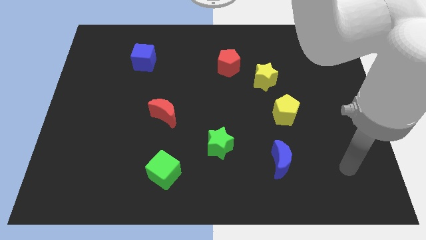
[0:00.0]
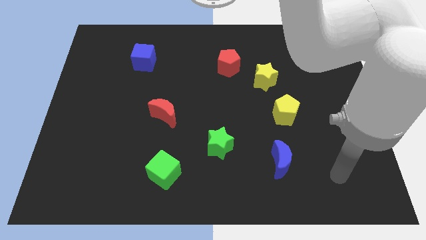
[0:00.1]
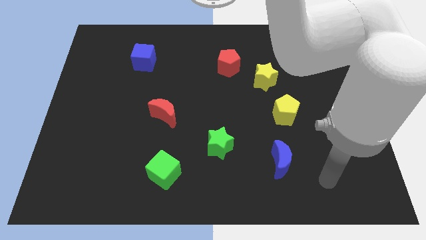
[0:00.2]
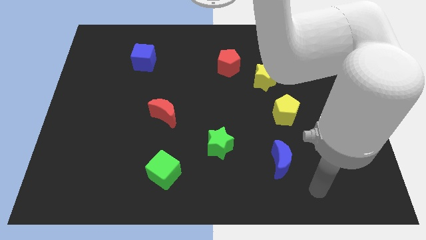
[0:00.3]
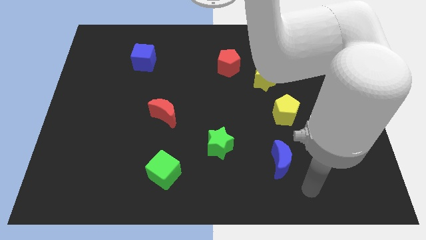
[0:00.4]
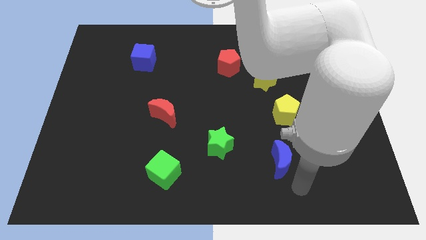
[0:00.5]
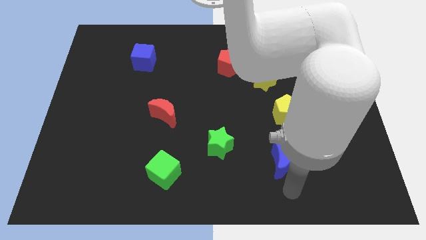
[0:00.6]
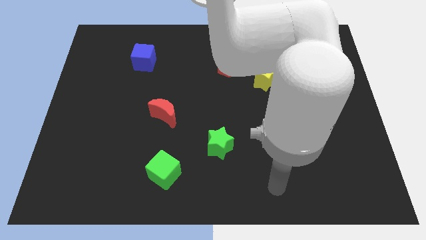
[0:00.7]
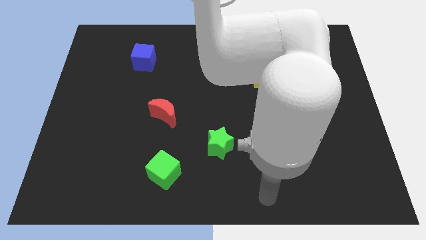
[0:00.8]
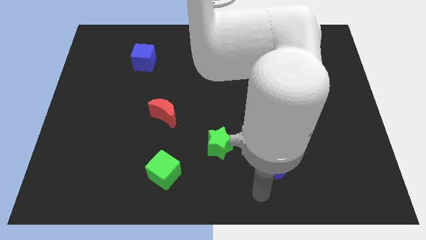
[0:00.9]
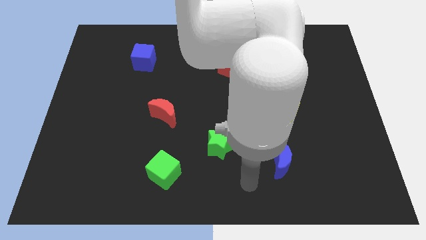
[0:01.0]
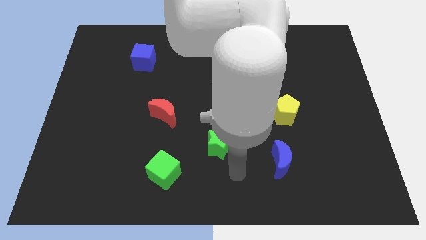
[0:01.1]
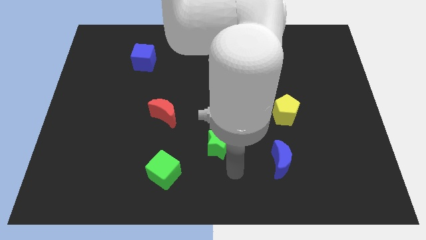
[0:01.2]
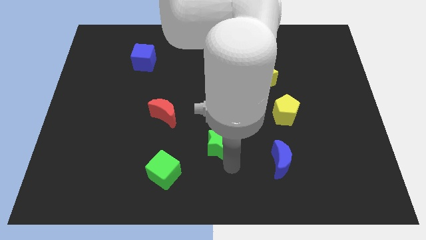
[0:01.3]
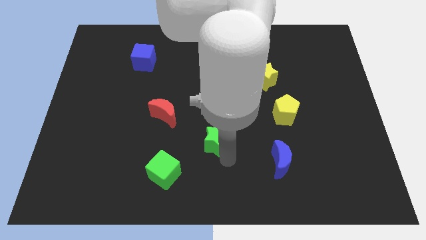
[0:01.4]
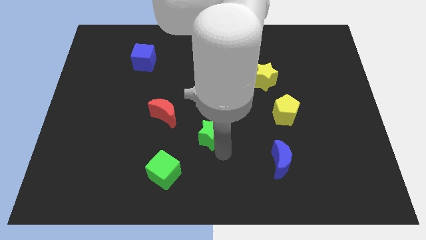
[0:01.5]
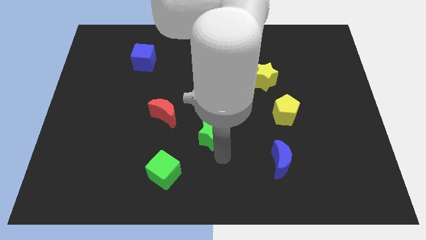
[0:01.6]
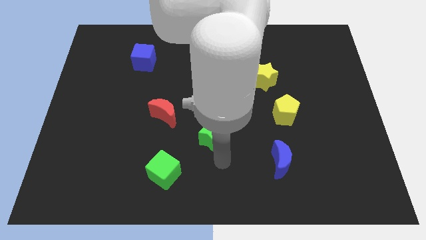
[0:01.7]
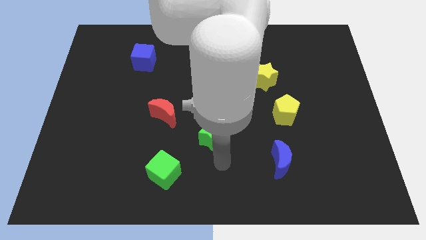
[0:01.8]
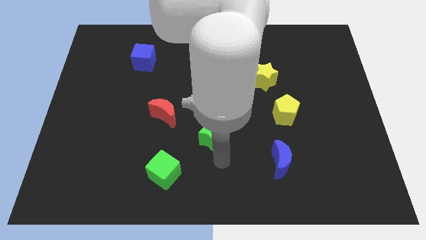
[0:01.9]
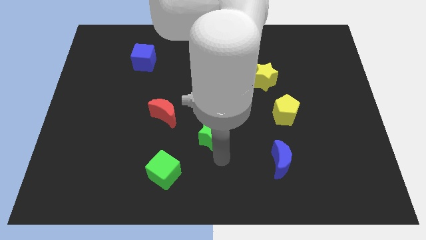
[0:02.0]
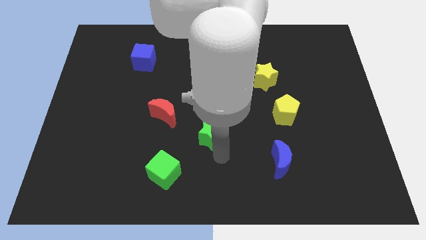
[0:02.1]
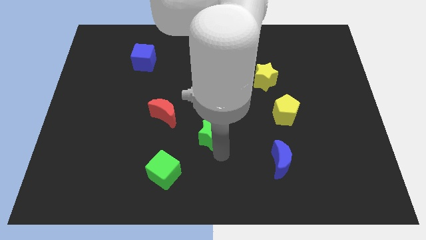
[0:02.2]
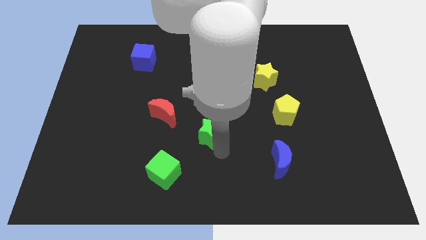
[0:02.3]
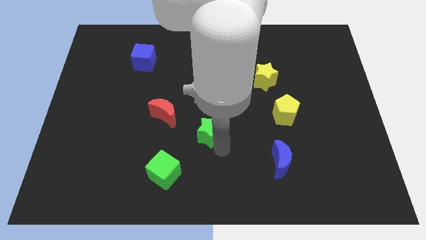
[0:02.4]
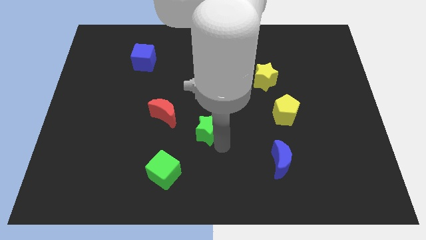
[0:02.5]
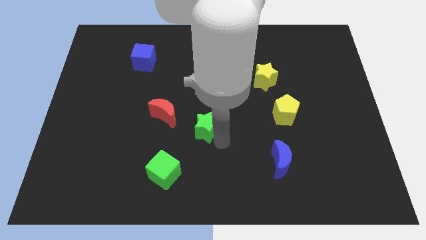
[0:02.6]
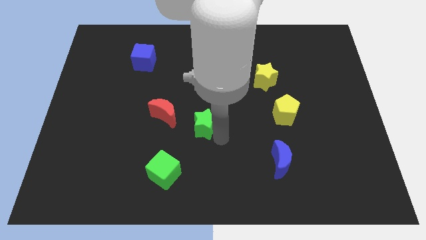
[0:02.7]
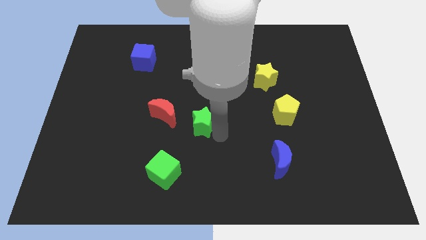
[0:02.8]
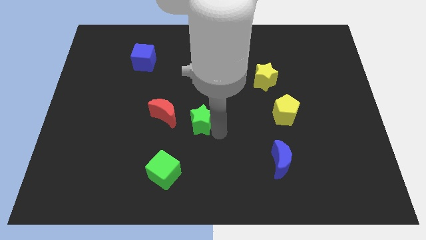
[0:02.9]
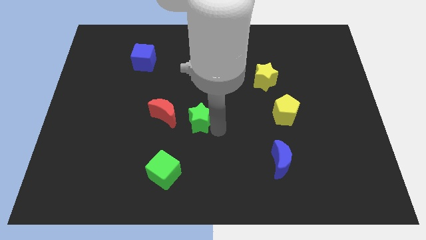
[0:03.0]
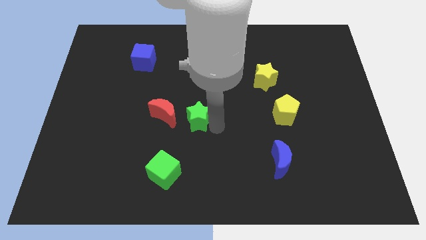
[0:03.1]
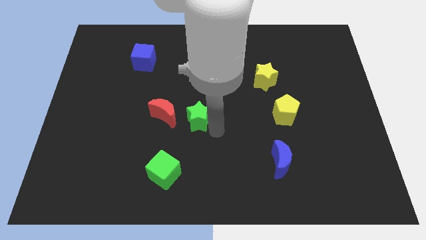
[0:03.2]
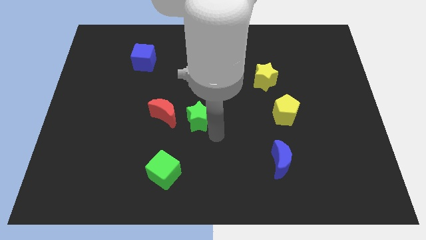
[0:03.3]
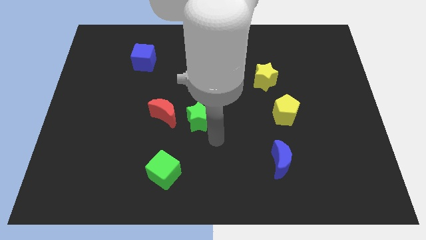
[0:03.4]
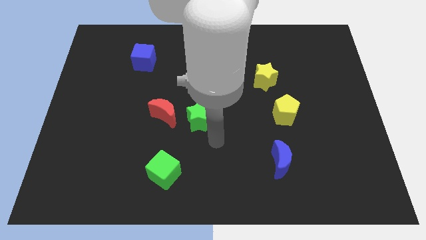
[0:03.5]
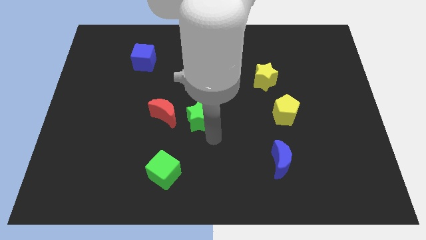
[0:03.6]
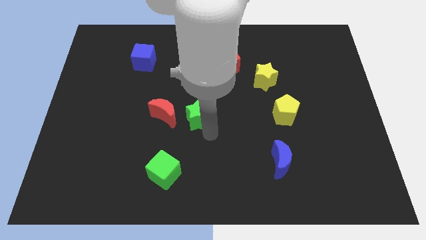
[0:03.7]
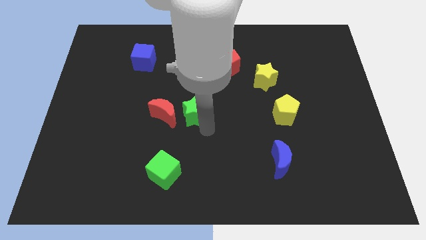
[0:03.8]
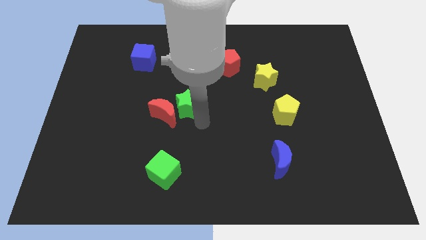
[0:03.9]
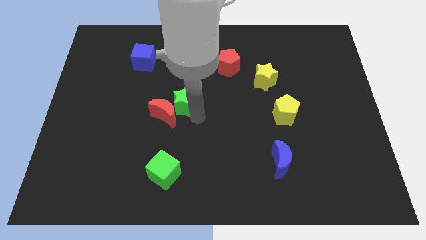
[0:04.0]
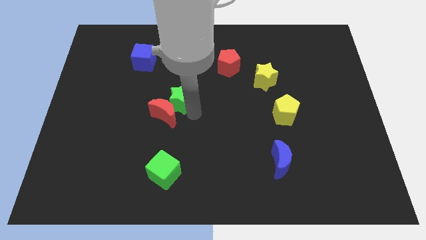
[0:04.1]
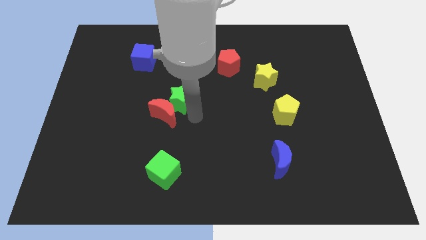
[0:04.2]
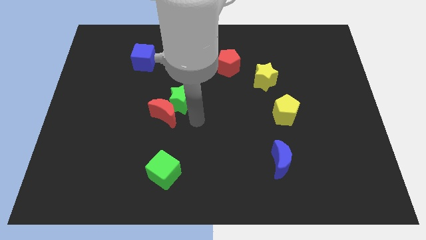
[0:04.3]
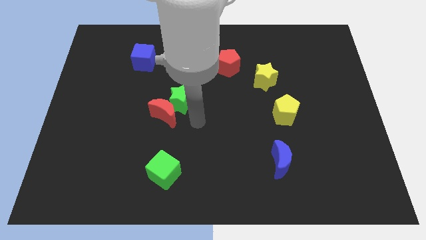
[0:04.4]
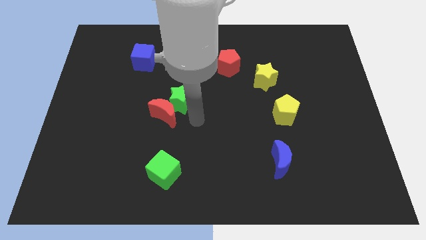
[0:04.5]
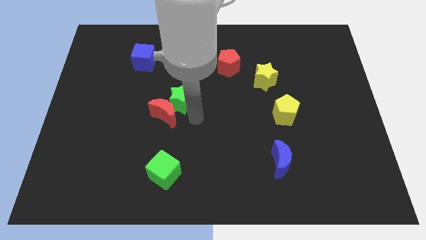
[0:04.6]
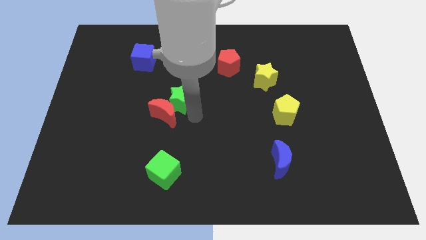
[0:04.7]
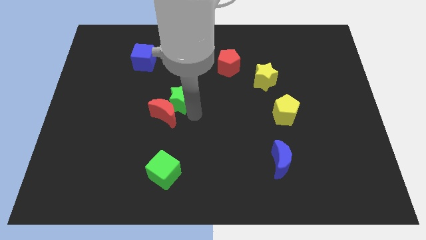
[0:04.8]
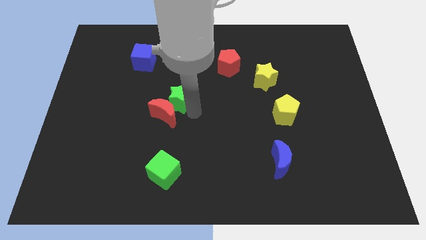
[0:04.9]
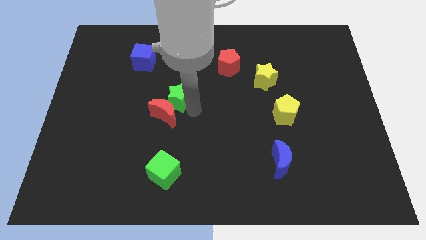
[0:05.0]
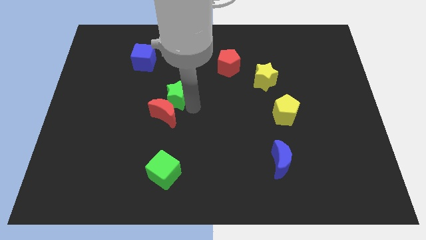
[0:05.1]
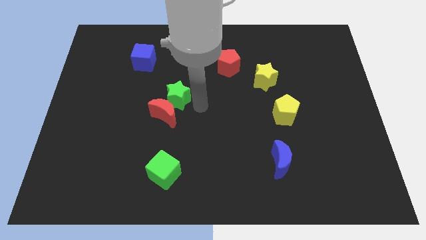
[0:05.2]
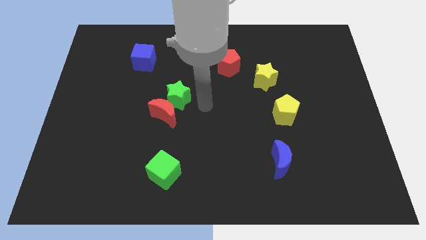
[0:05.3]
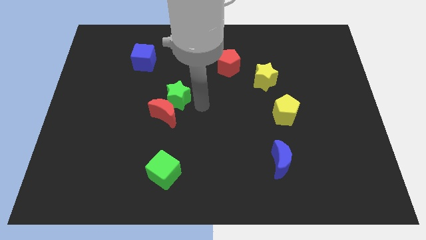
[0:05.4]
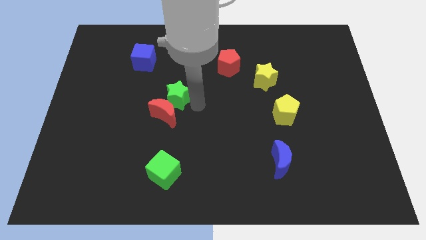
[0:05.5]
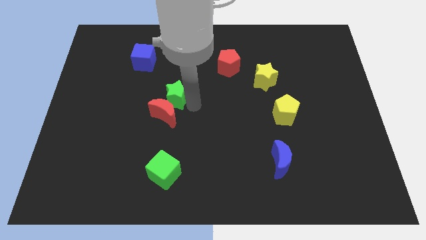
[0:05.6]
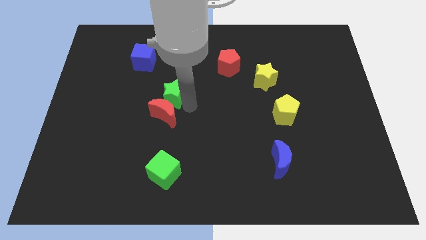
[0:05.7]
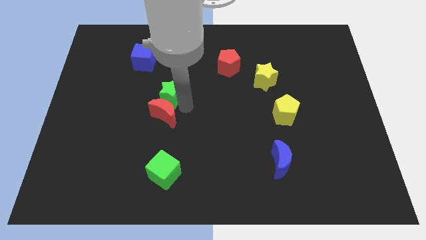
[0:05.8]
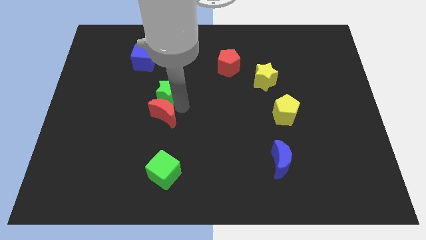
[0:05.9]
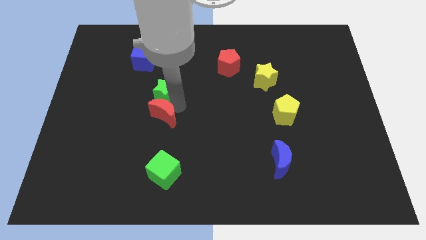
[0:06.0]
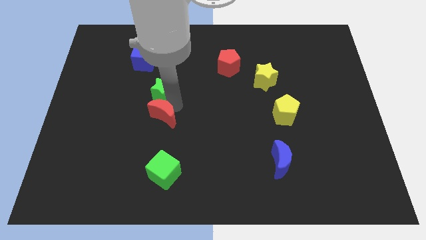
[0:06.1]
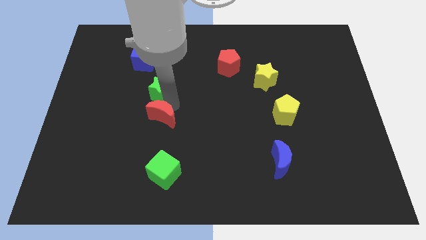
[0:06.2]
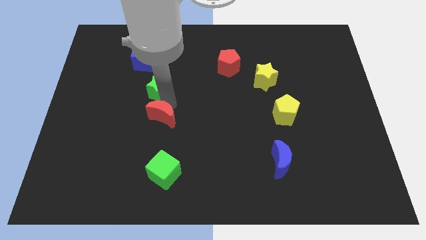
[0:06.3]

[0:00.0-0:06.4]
put the green star to the bottom side of the blue cube

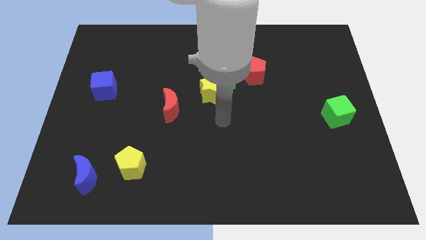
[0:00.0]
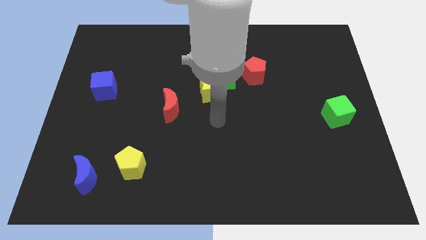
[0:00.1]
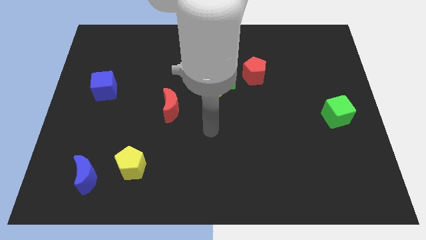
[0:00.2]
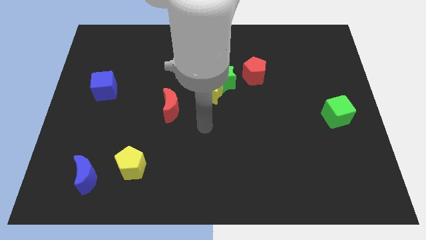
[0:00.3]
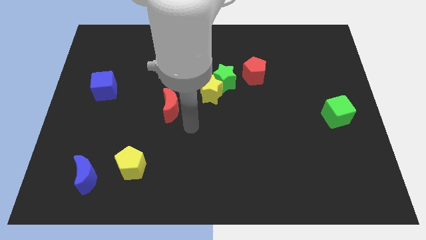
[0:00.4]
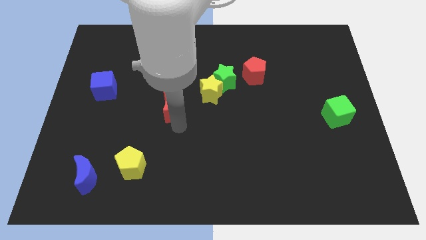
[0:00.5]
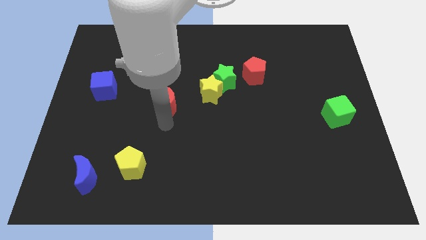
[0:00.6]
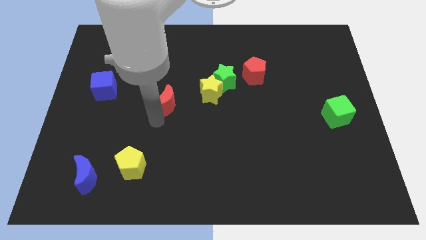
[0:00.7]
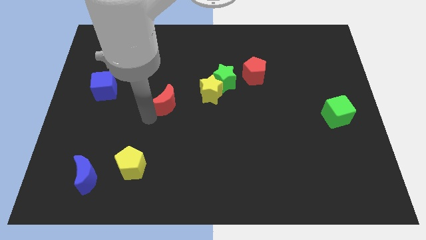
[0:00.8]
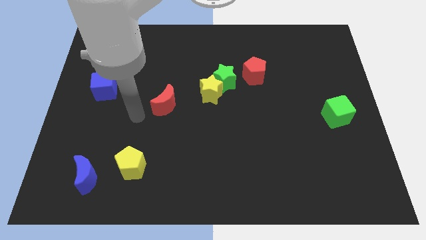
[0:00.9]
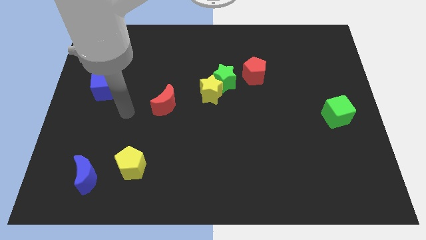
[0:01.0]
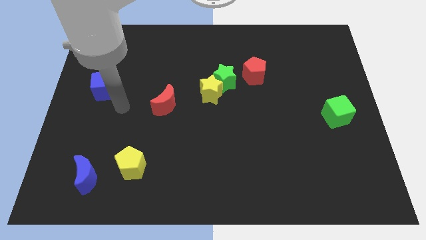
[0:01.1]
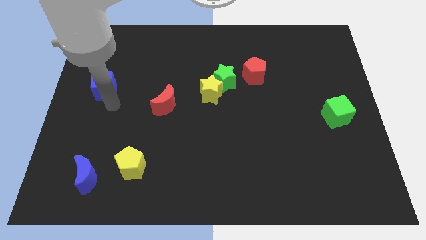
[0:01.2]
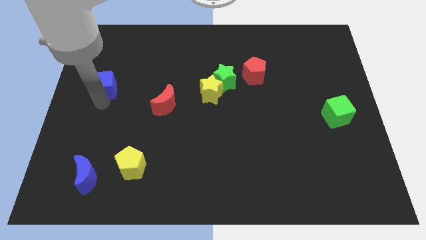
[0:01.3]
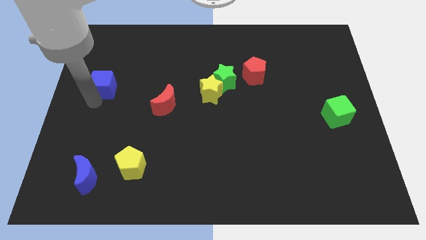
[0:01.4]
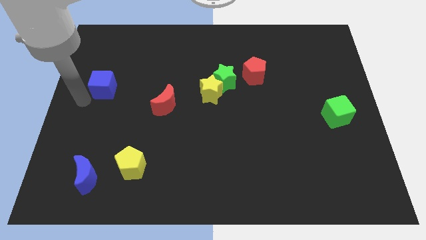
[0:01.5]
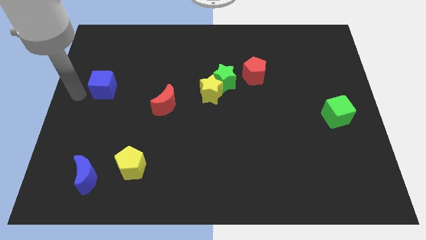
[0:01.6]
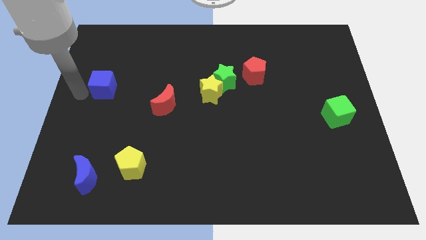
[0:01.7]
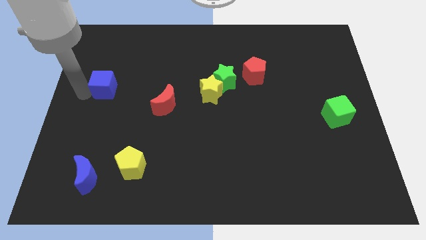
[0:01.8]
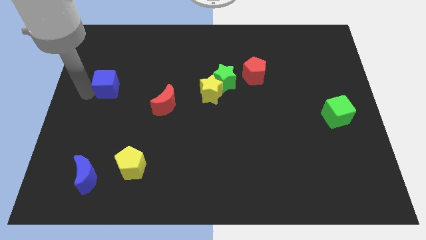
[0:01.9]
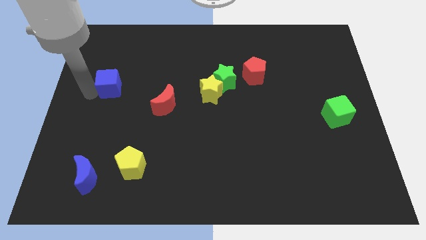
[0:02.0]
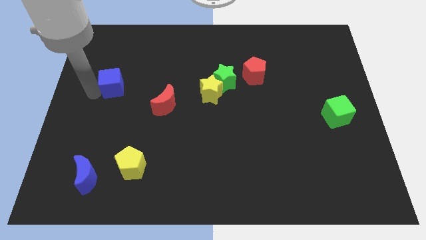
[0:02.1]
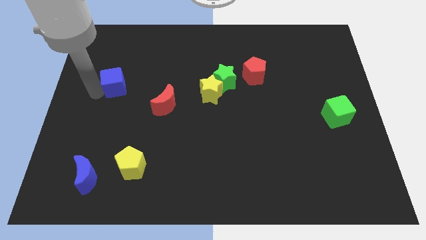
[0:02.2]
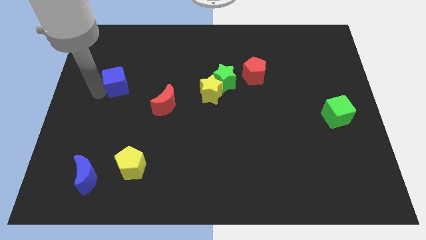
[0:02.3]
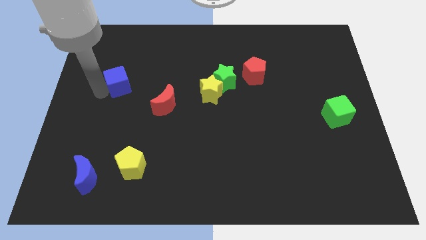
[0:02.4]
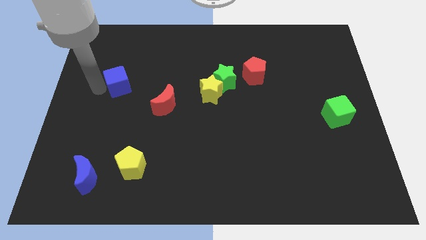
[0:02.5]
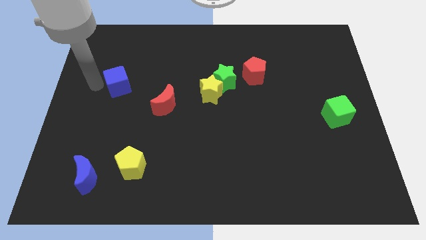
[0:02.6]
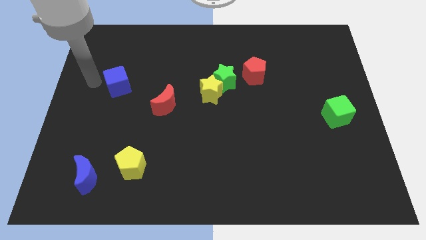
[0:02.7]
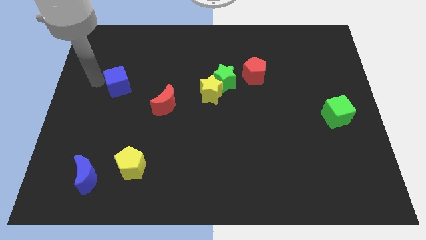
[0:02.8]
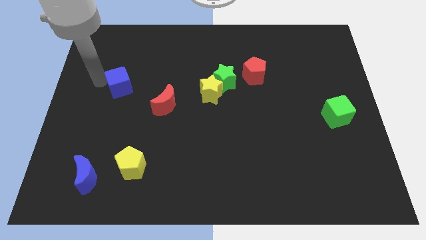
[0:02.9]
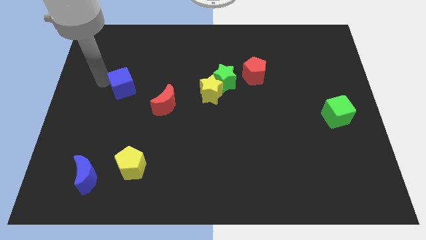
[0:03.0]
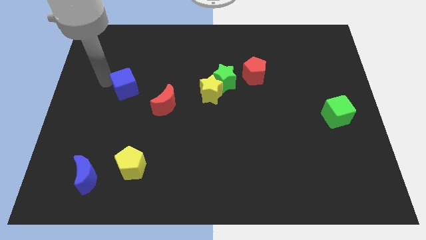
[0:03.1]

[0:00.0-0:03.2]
move the blue cube to the top left side of the red moon
